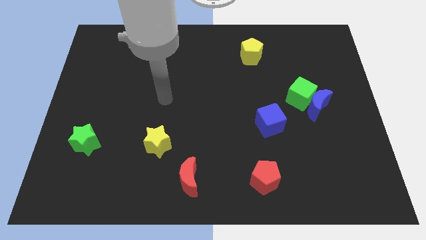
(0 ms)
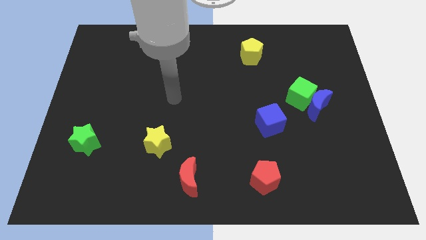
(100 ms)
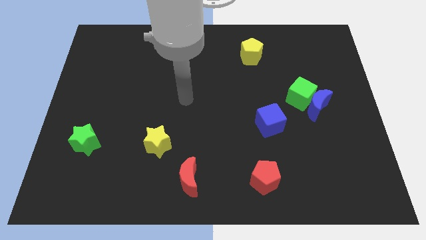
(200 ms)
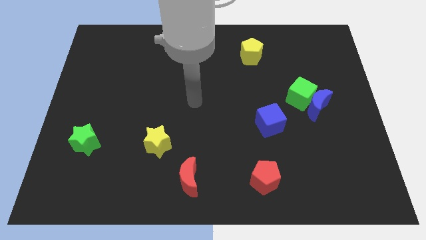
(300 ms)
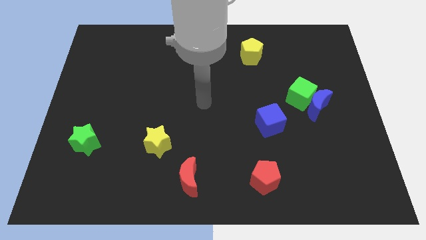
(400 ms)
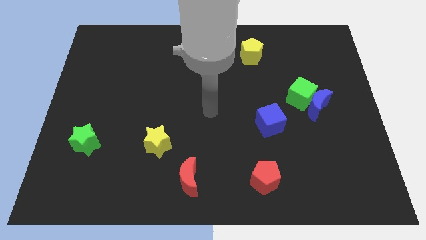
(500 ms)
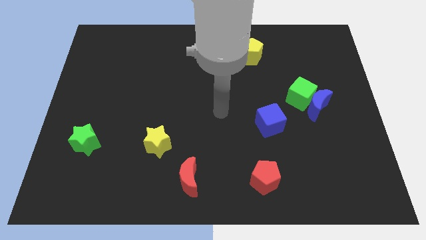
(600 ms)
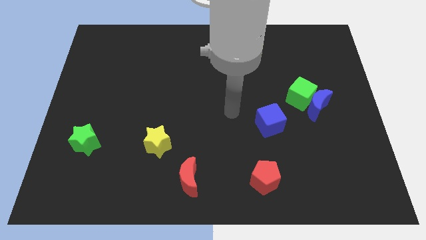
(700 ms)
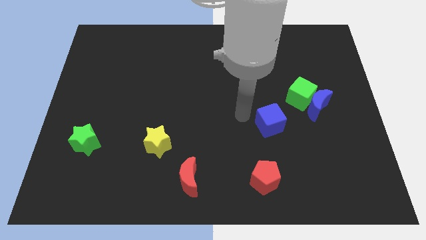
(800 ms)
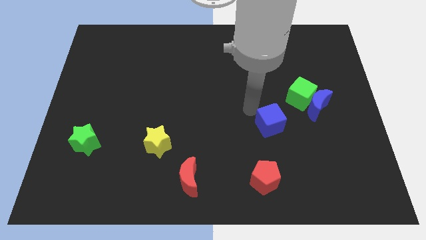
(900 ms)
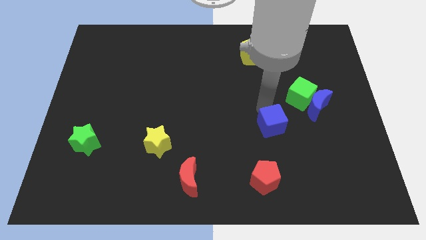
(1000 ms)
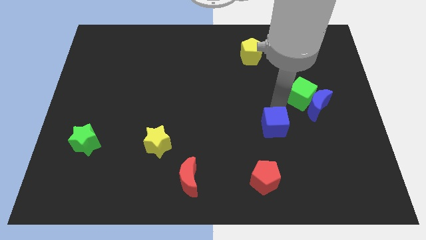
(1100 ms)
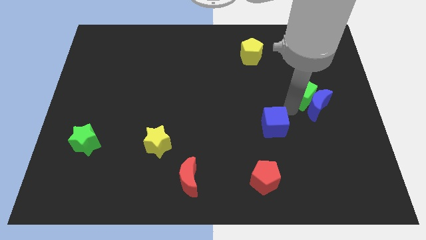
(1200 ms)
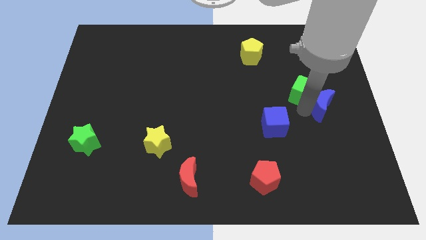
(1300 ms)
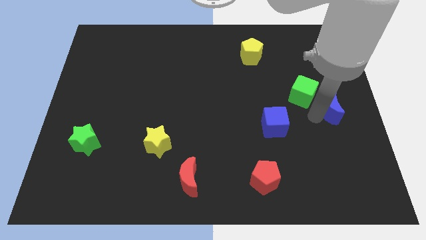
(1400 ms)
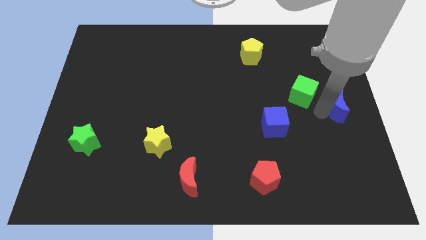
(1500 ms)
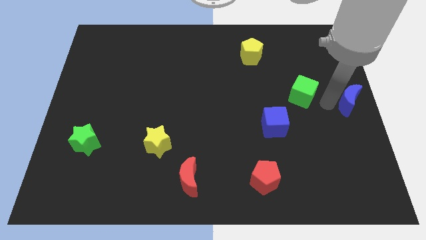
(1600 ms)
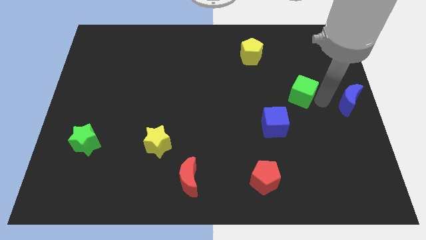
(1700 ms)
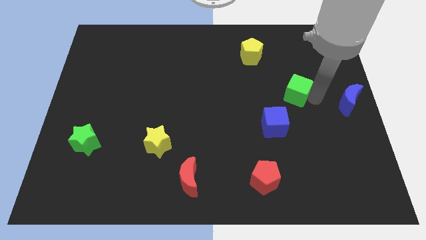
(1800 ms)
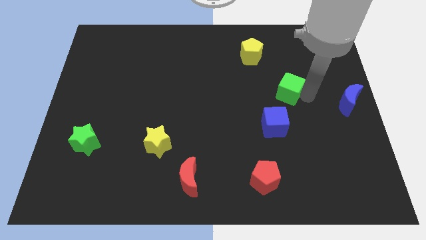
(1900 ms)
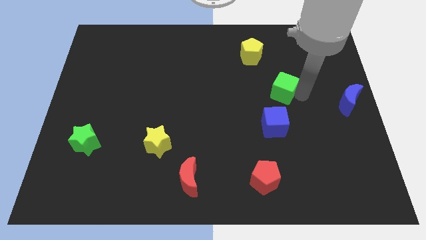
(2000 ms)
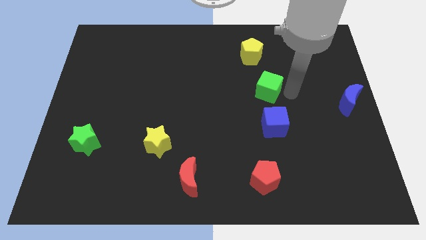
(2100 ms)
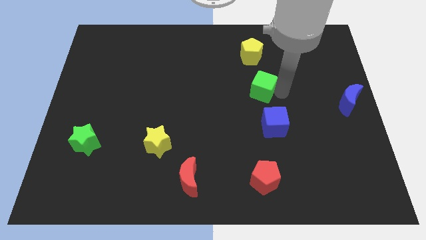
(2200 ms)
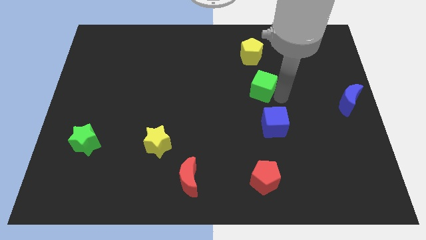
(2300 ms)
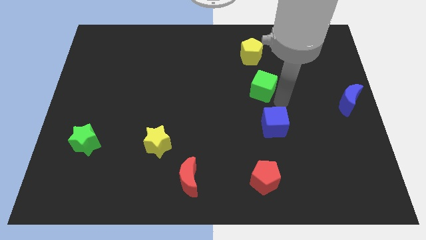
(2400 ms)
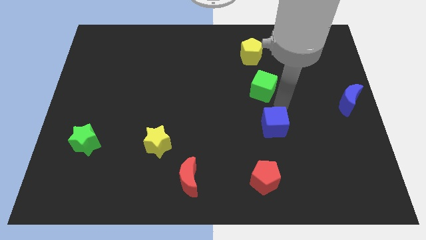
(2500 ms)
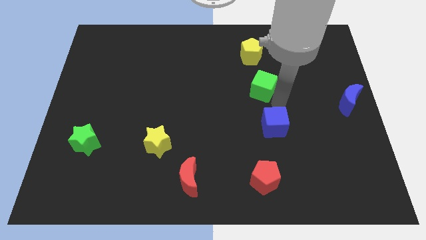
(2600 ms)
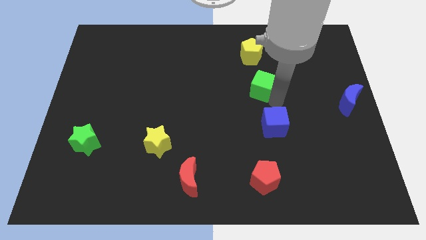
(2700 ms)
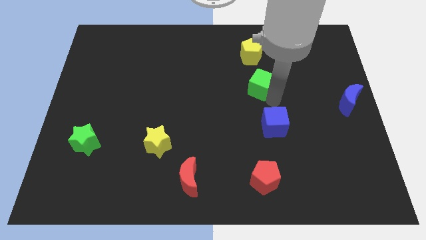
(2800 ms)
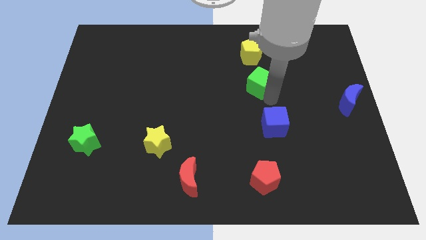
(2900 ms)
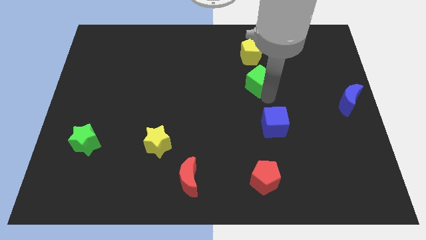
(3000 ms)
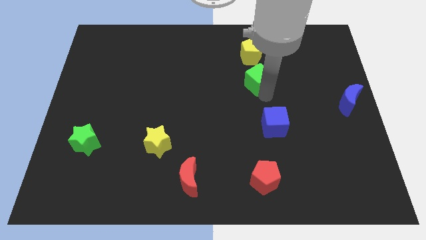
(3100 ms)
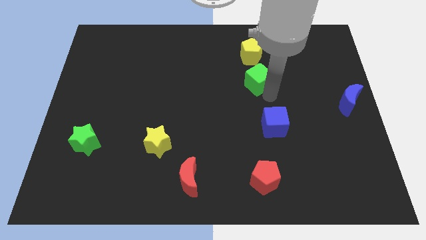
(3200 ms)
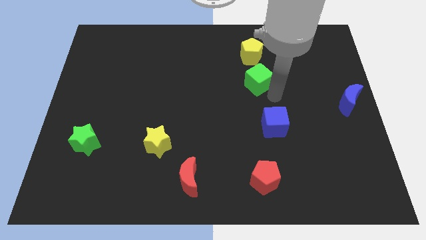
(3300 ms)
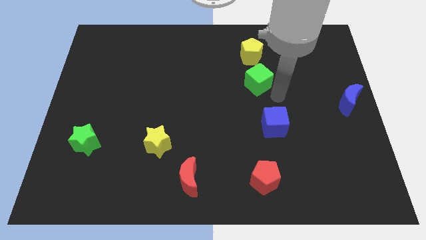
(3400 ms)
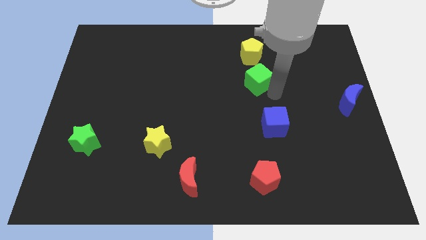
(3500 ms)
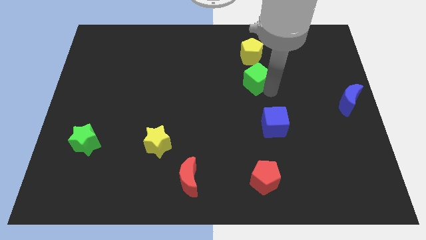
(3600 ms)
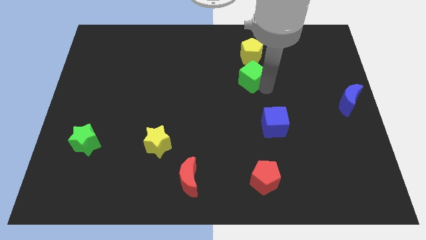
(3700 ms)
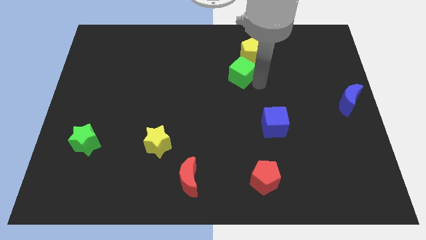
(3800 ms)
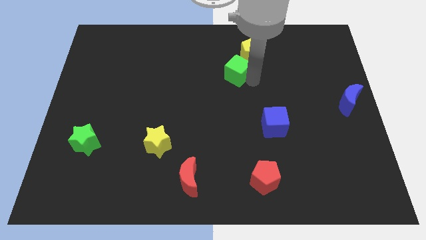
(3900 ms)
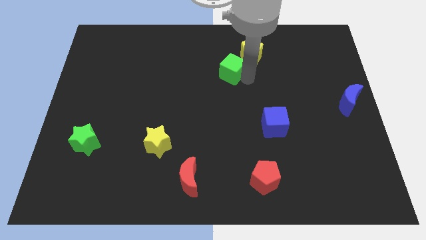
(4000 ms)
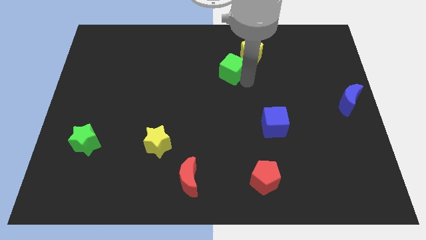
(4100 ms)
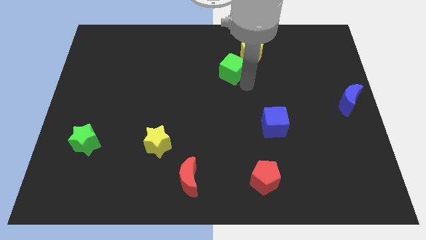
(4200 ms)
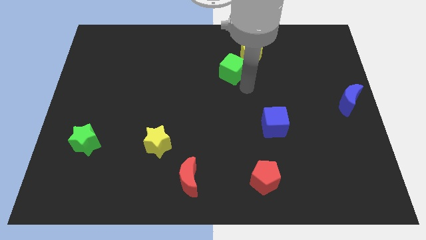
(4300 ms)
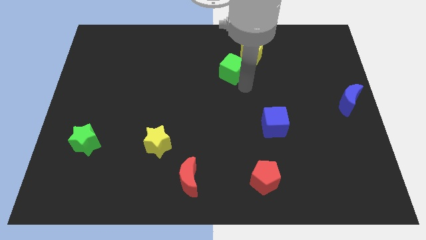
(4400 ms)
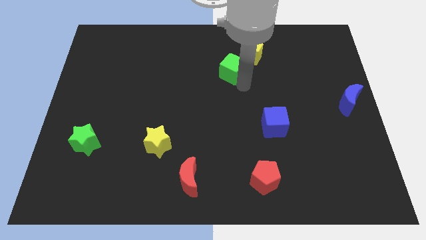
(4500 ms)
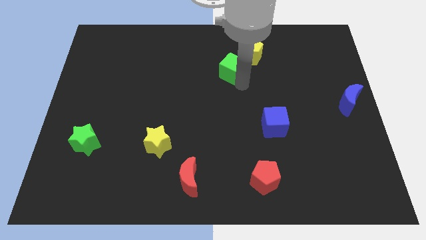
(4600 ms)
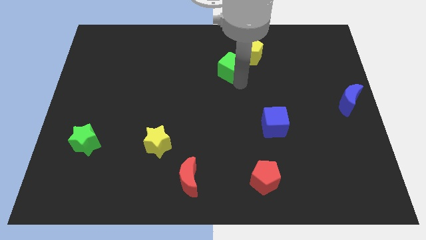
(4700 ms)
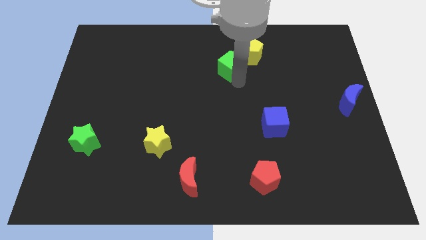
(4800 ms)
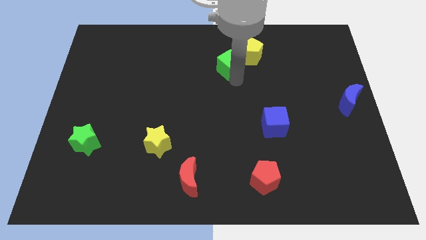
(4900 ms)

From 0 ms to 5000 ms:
push the green cube to the left of the yellow pentagon

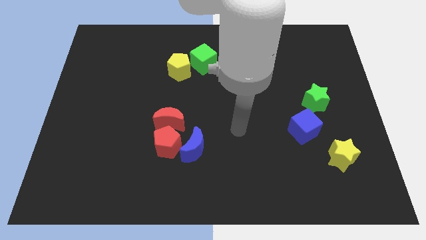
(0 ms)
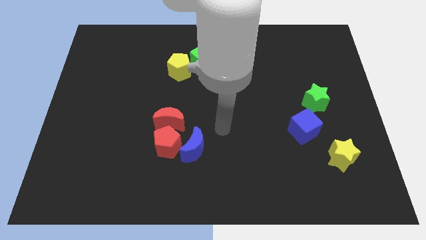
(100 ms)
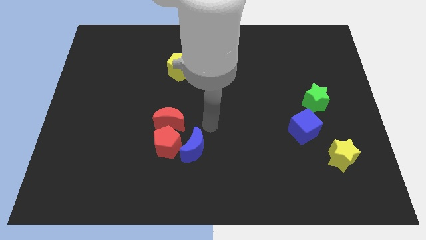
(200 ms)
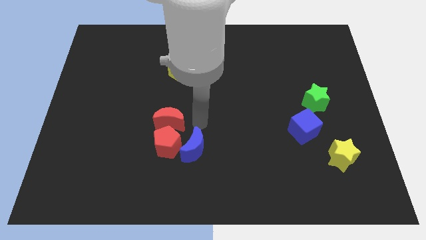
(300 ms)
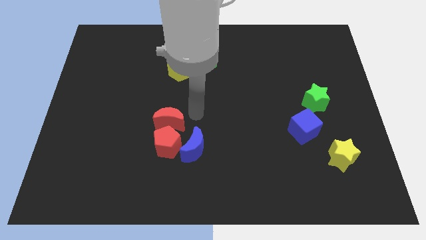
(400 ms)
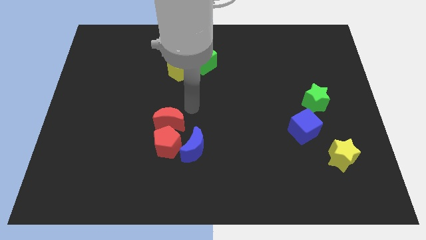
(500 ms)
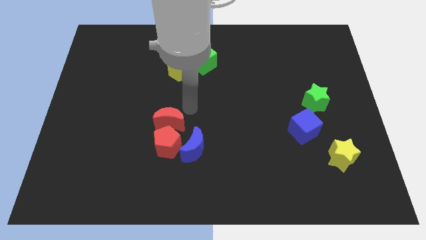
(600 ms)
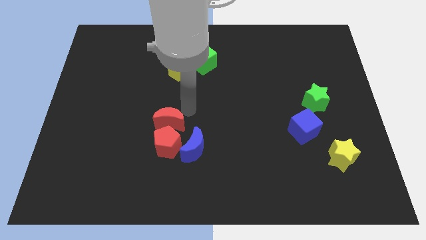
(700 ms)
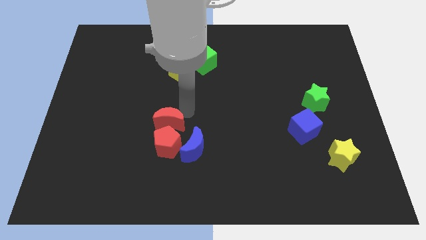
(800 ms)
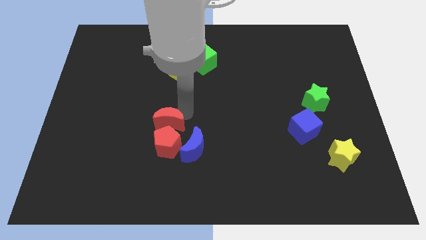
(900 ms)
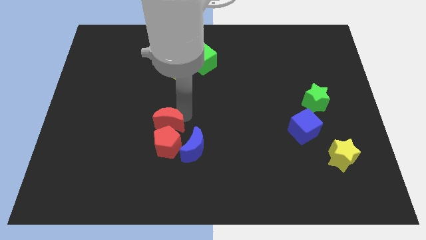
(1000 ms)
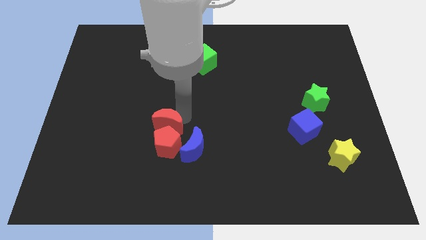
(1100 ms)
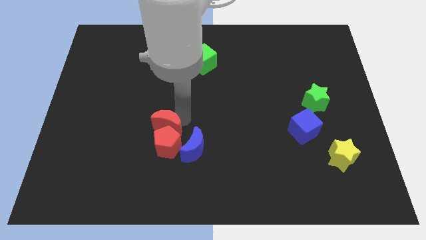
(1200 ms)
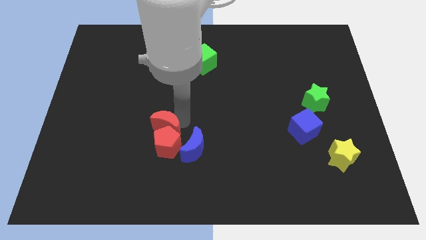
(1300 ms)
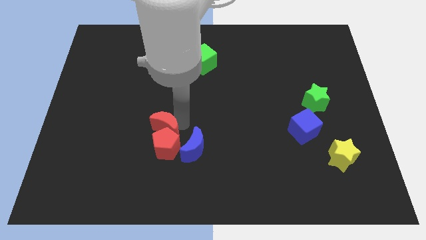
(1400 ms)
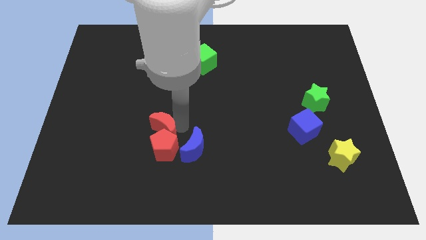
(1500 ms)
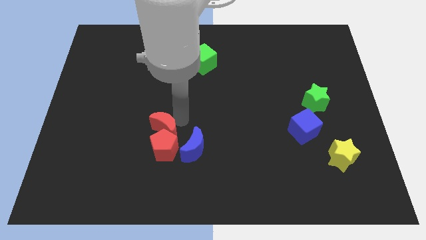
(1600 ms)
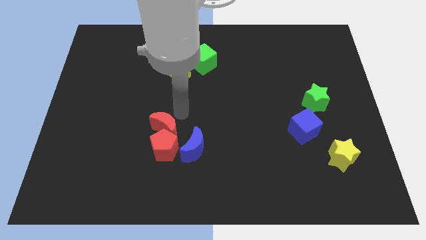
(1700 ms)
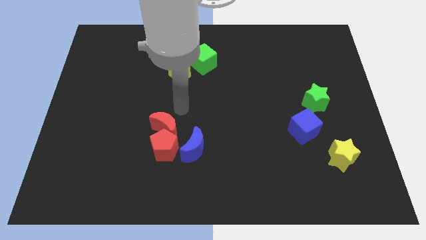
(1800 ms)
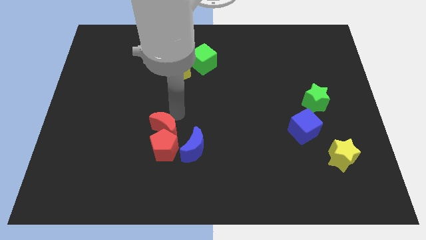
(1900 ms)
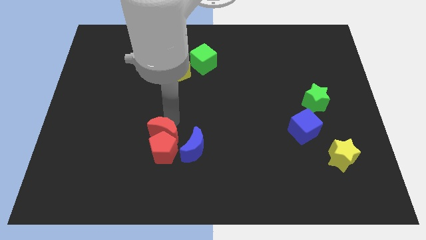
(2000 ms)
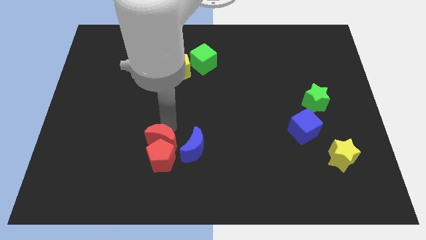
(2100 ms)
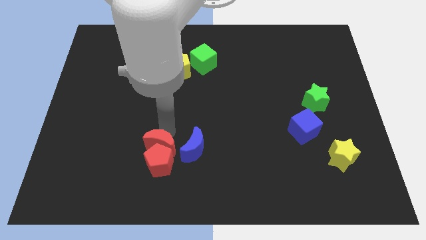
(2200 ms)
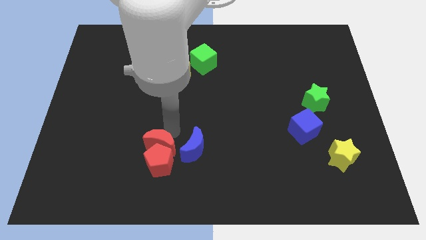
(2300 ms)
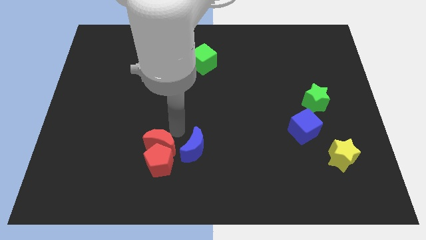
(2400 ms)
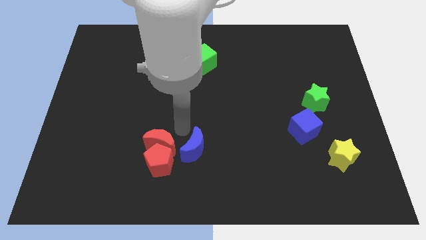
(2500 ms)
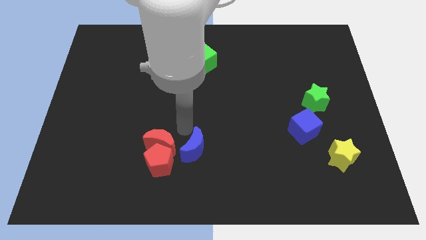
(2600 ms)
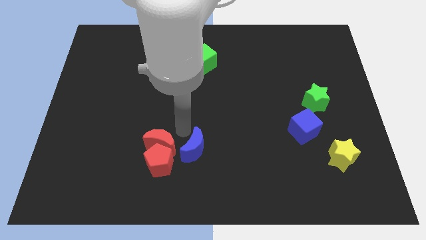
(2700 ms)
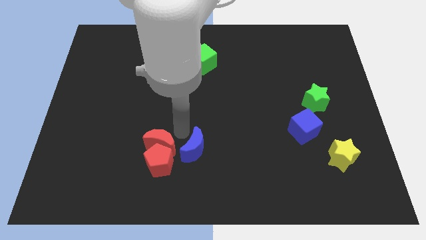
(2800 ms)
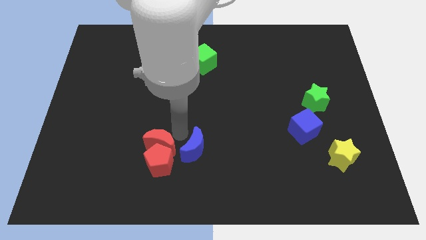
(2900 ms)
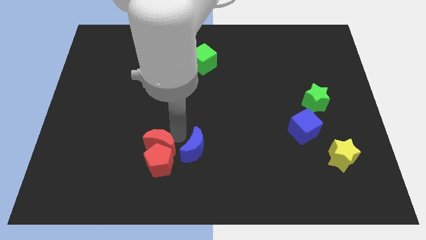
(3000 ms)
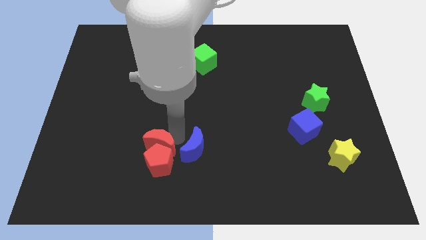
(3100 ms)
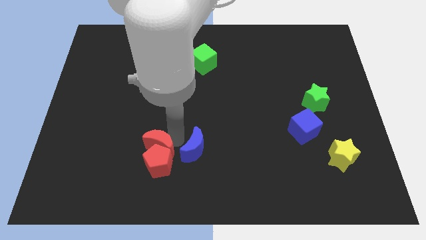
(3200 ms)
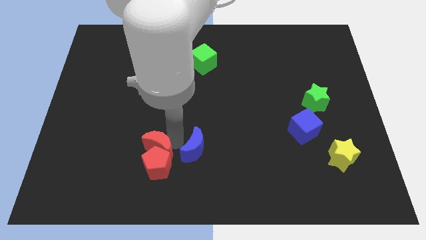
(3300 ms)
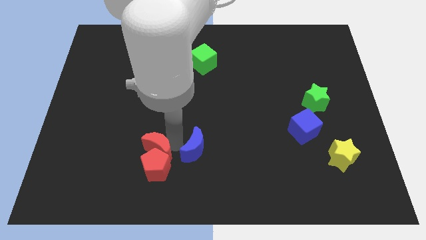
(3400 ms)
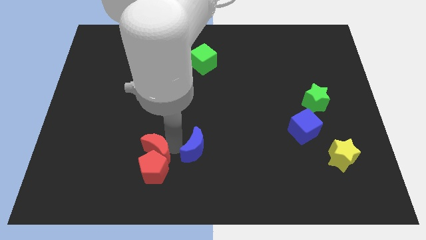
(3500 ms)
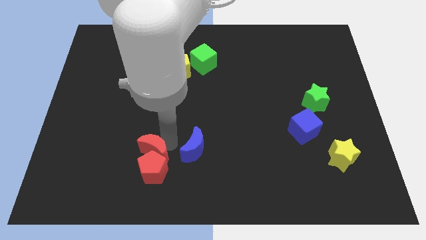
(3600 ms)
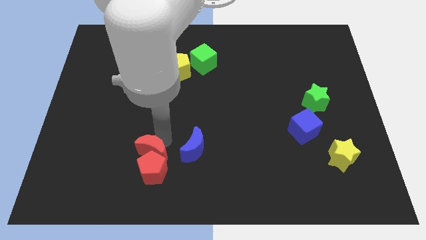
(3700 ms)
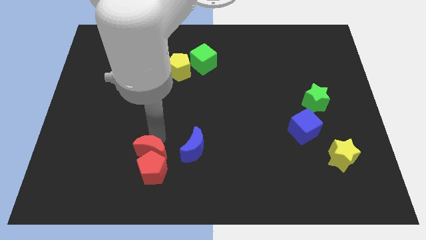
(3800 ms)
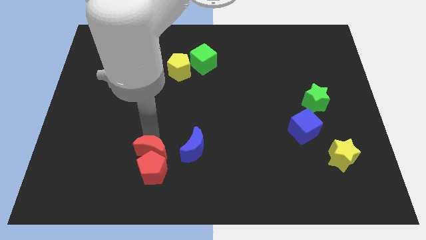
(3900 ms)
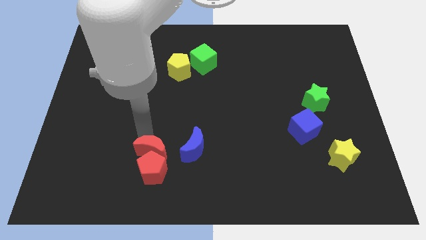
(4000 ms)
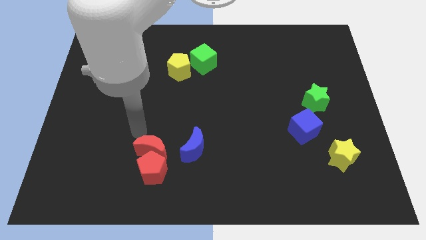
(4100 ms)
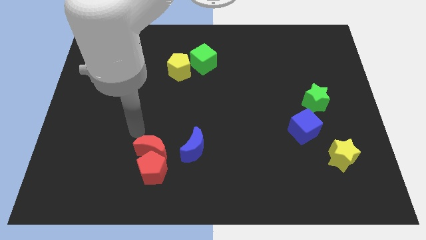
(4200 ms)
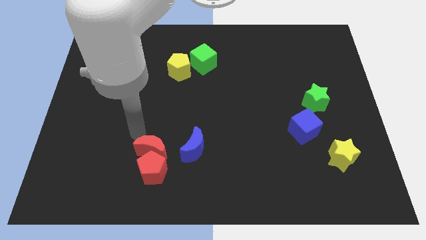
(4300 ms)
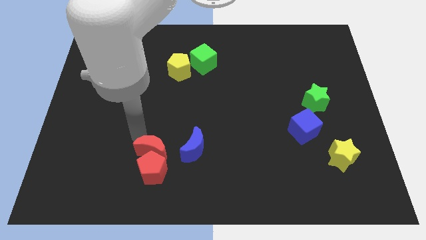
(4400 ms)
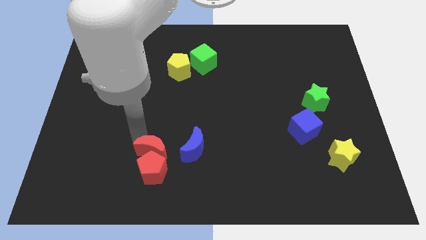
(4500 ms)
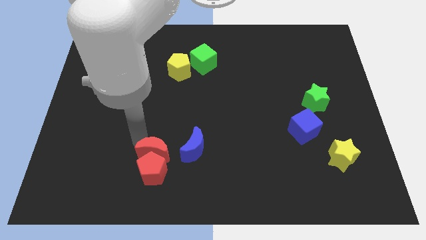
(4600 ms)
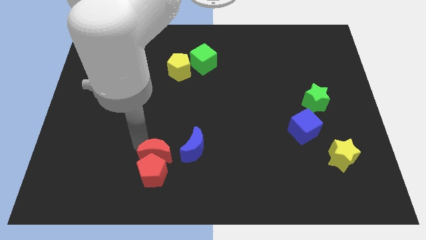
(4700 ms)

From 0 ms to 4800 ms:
move the red moon to the bottom left of the blue moon
